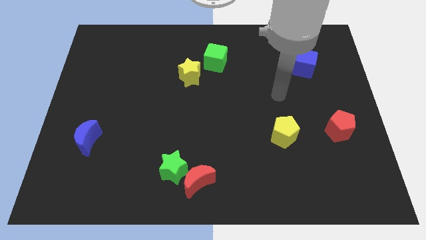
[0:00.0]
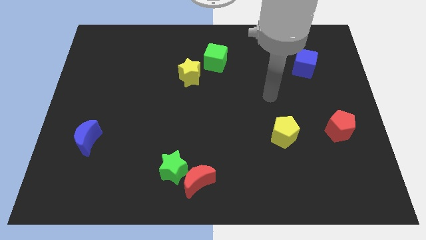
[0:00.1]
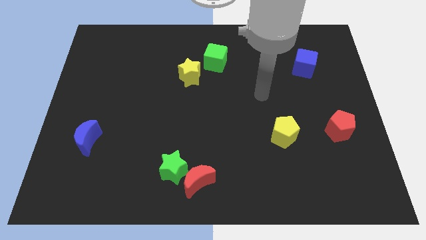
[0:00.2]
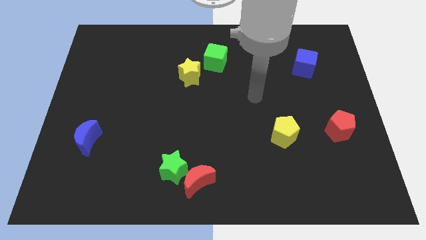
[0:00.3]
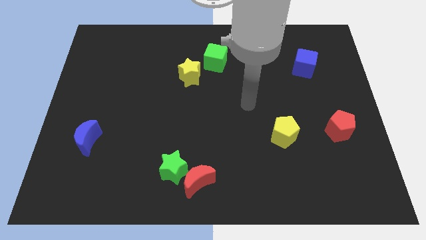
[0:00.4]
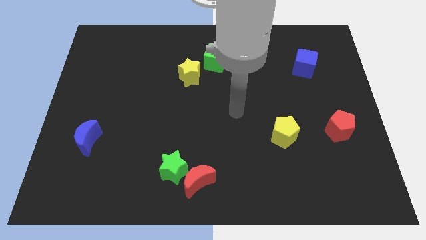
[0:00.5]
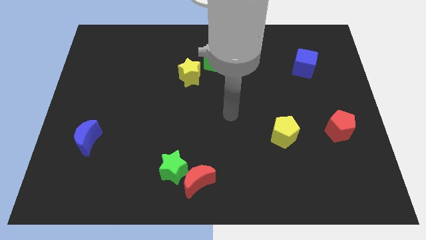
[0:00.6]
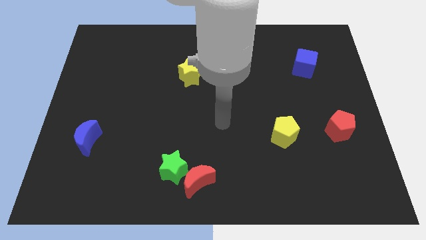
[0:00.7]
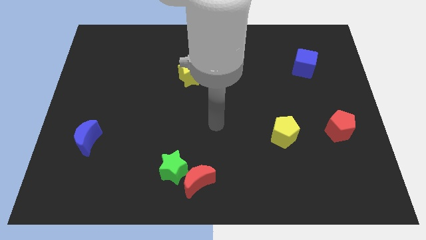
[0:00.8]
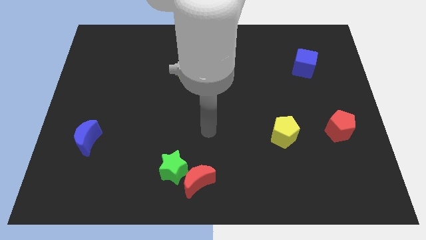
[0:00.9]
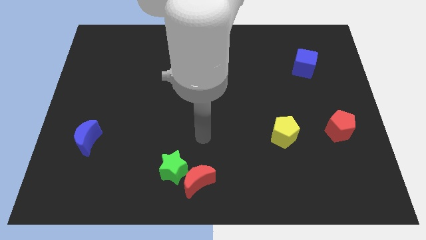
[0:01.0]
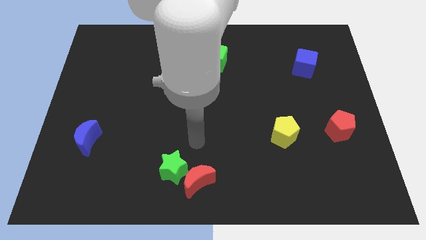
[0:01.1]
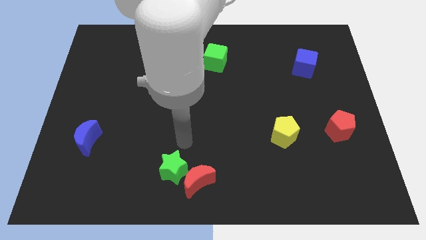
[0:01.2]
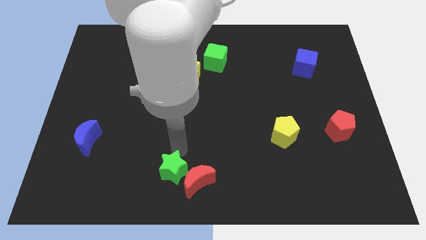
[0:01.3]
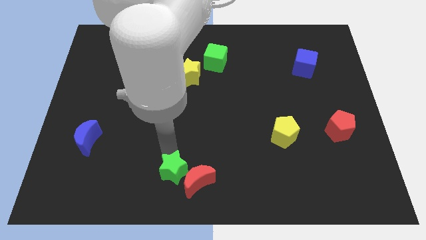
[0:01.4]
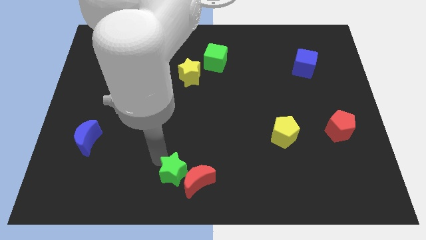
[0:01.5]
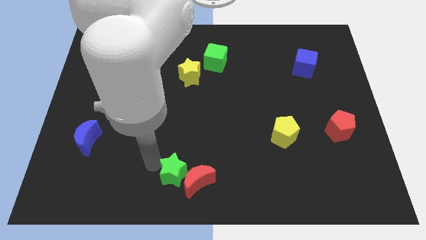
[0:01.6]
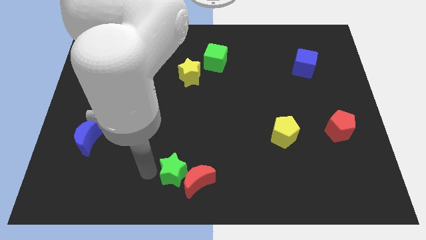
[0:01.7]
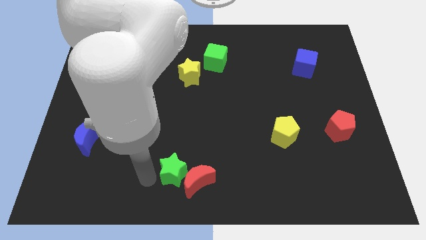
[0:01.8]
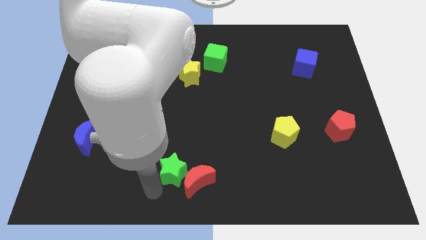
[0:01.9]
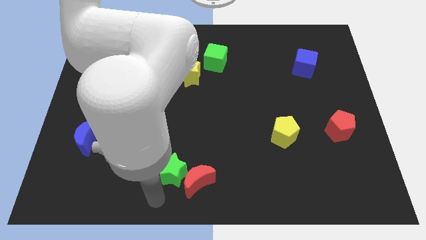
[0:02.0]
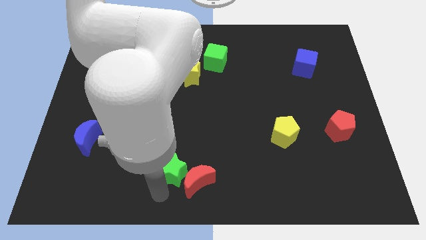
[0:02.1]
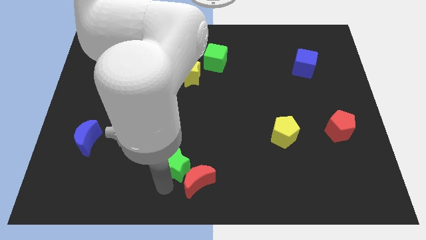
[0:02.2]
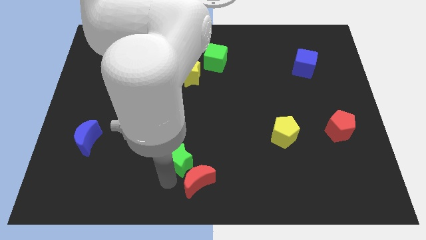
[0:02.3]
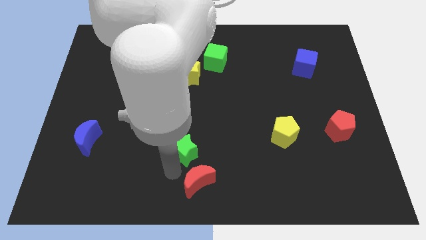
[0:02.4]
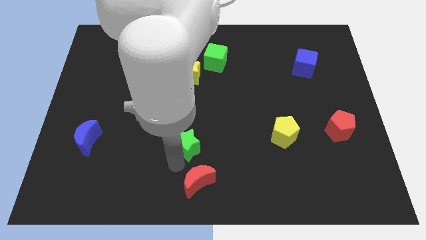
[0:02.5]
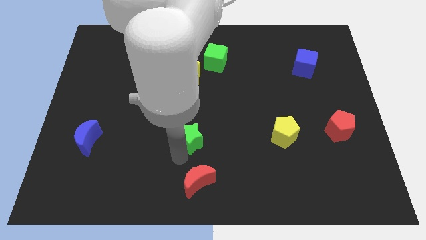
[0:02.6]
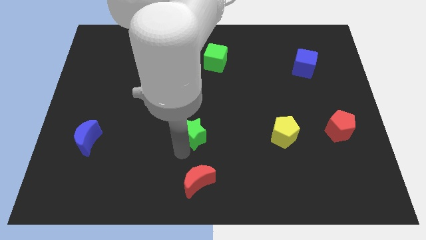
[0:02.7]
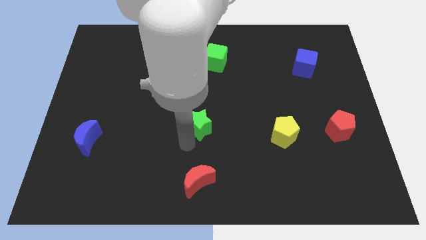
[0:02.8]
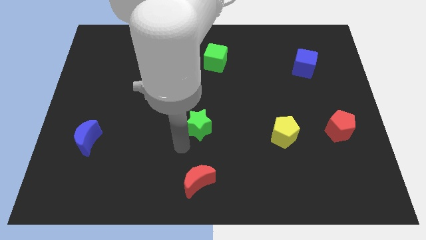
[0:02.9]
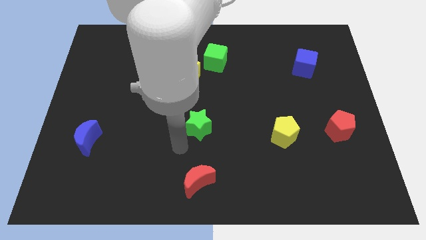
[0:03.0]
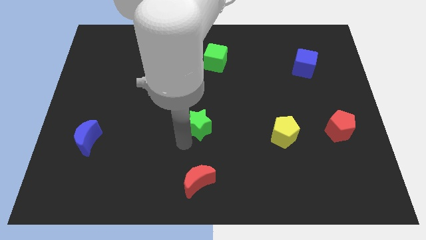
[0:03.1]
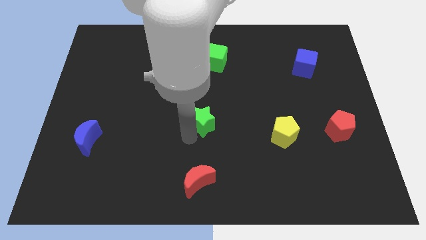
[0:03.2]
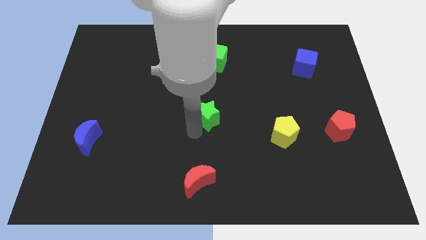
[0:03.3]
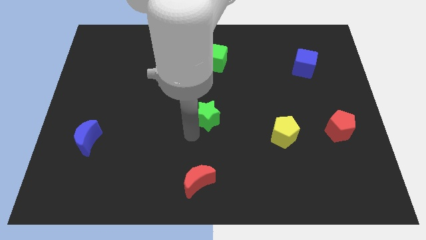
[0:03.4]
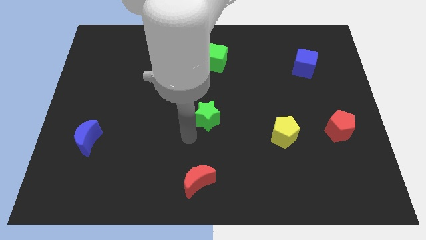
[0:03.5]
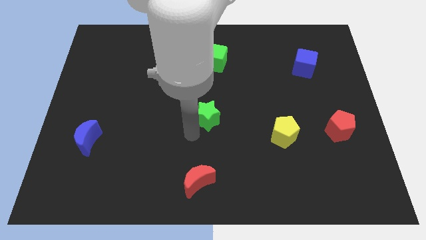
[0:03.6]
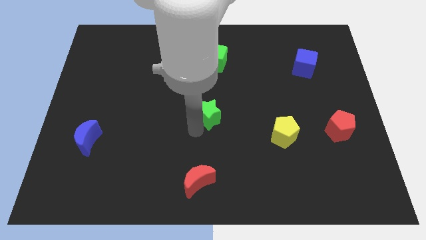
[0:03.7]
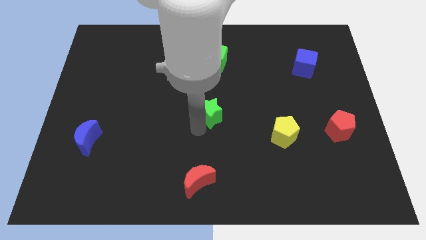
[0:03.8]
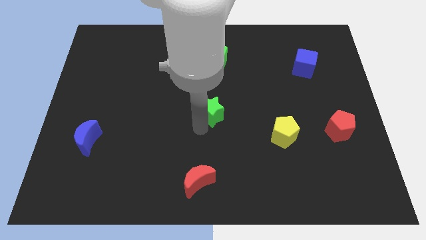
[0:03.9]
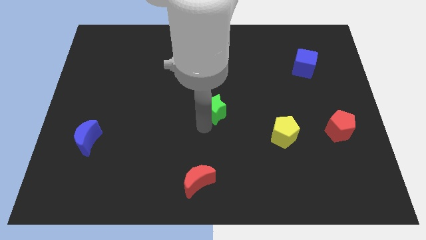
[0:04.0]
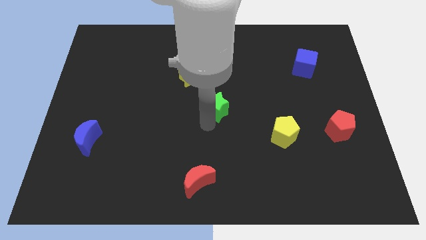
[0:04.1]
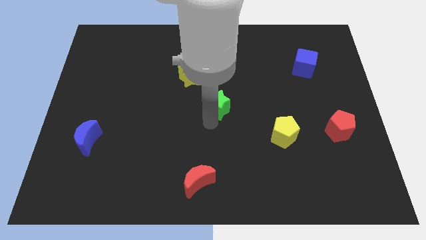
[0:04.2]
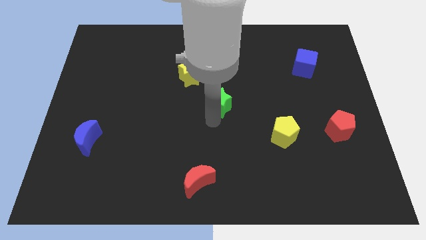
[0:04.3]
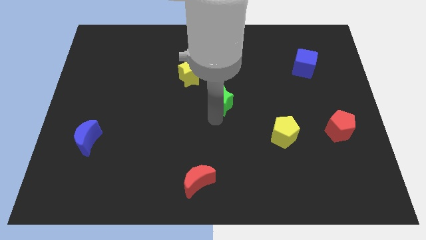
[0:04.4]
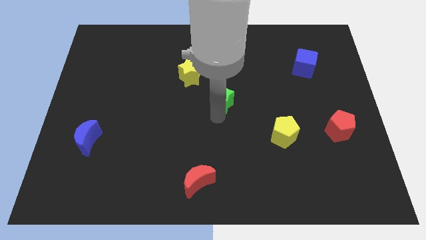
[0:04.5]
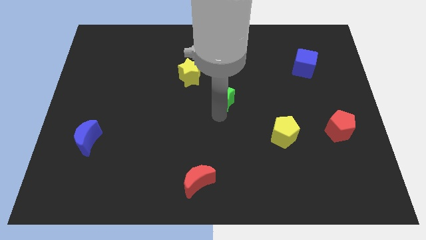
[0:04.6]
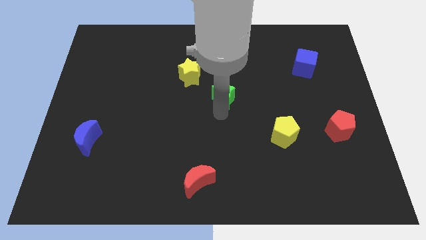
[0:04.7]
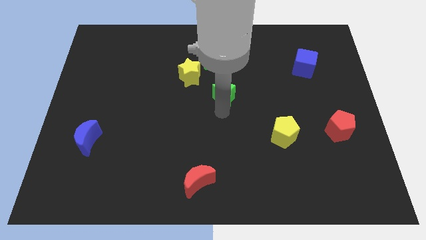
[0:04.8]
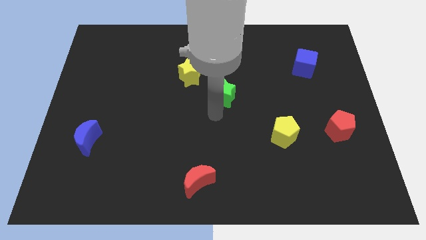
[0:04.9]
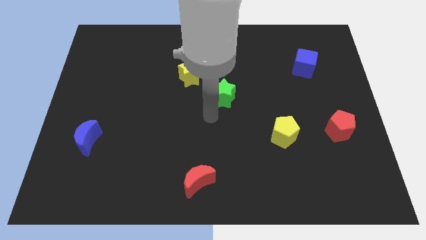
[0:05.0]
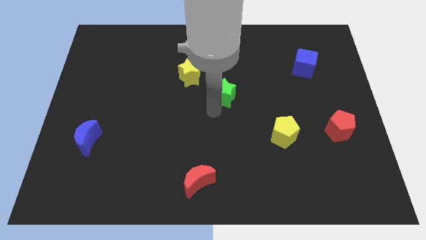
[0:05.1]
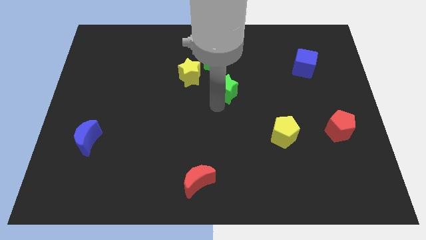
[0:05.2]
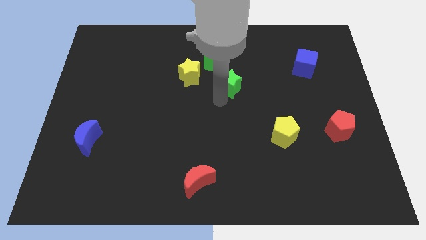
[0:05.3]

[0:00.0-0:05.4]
slide the green star diagonally down and to the right of the green cube

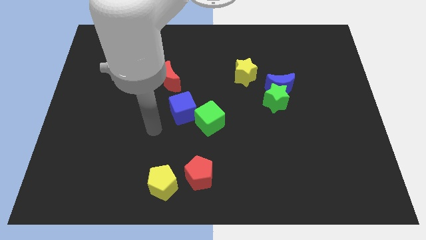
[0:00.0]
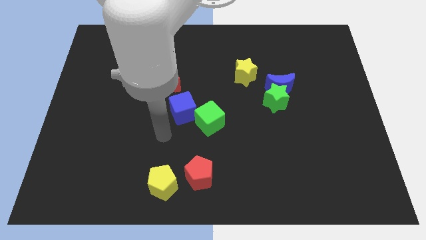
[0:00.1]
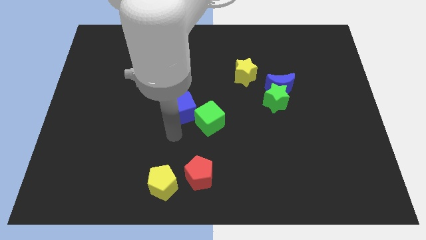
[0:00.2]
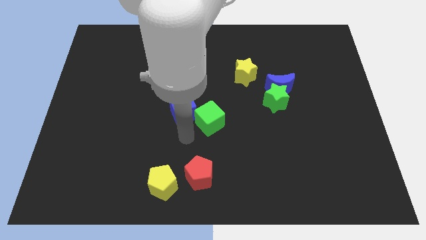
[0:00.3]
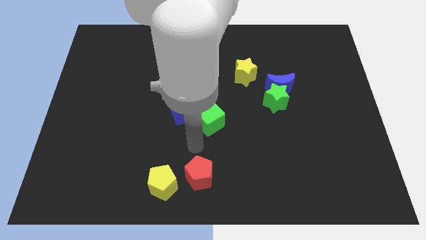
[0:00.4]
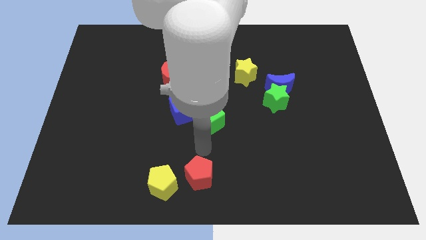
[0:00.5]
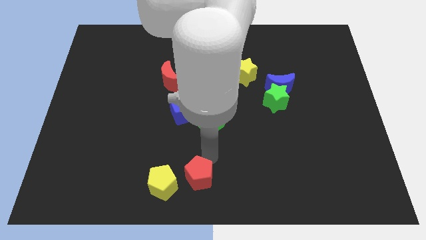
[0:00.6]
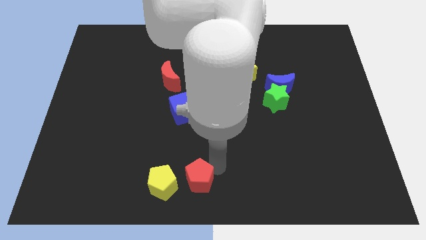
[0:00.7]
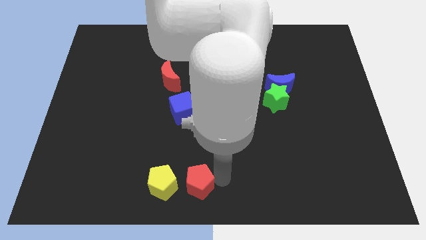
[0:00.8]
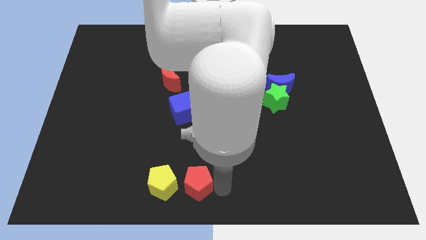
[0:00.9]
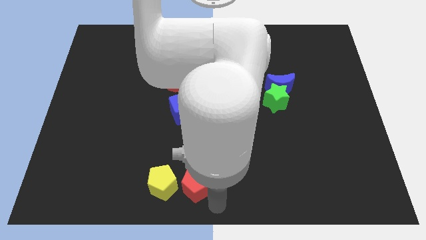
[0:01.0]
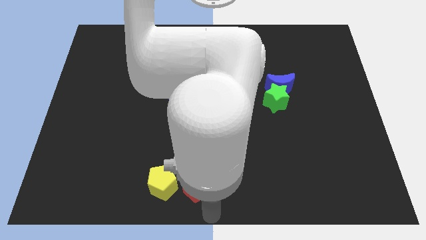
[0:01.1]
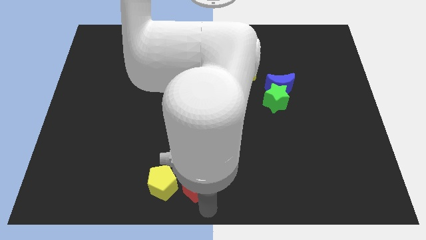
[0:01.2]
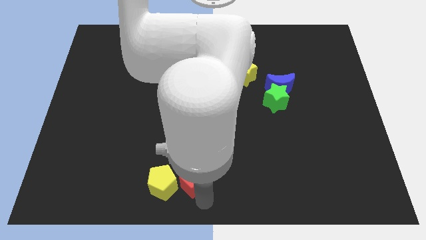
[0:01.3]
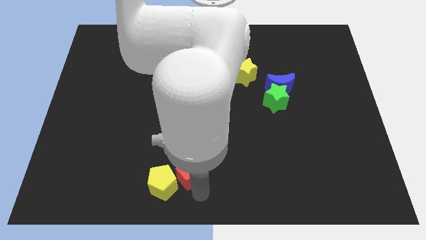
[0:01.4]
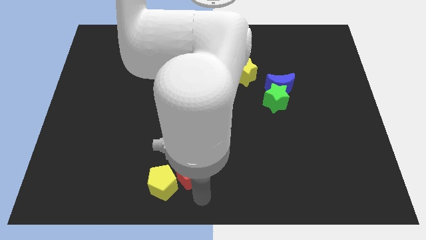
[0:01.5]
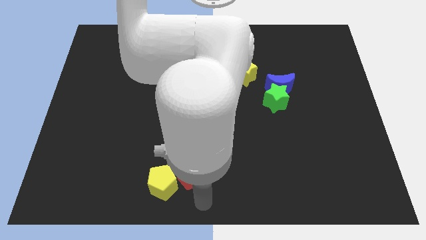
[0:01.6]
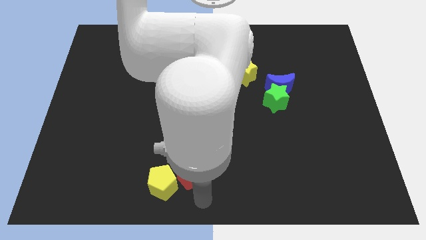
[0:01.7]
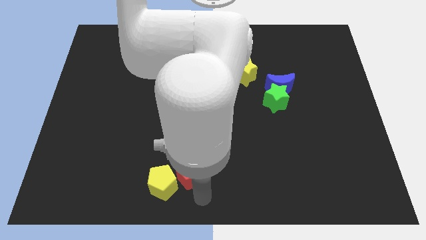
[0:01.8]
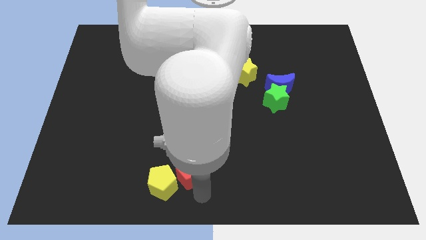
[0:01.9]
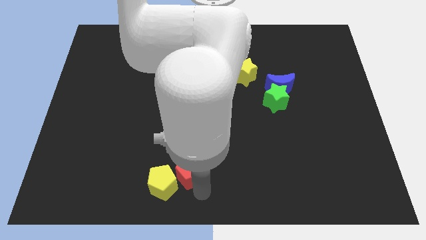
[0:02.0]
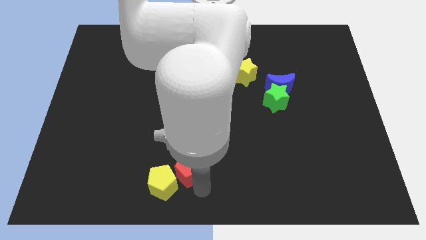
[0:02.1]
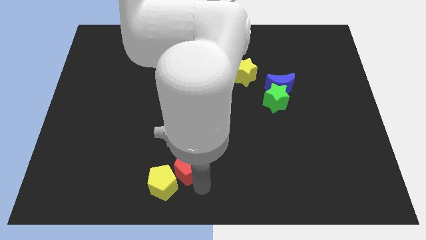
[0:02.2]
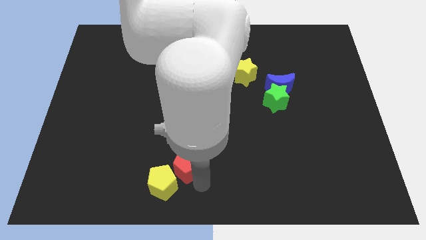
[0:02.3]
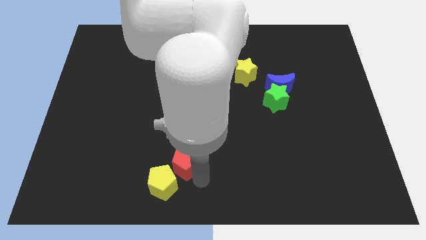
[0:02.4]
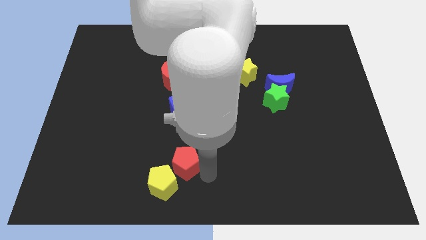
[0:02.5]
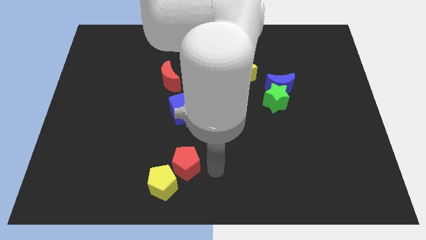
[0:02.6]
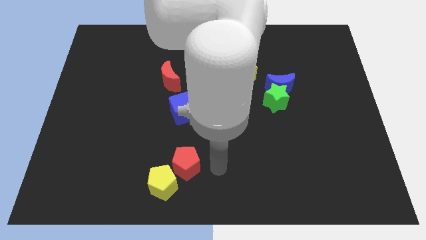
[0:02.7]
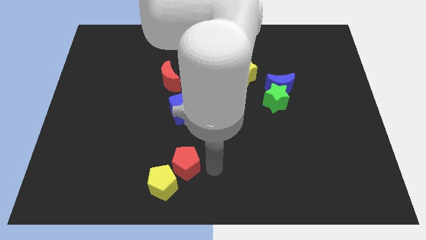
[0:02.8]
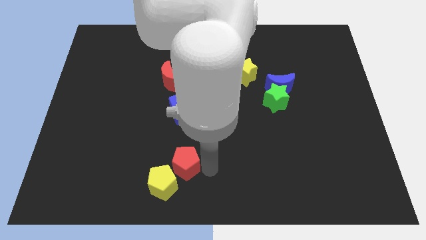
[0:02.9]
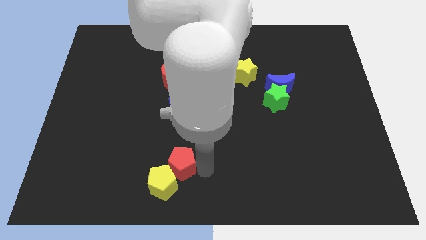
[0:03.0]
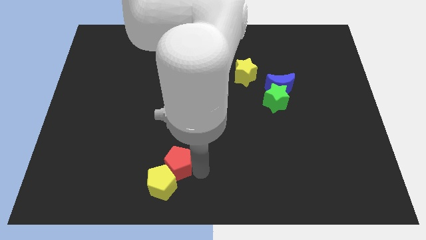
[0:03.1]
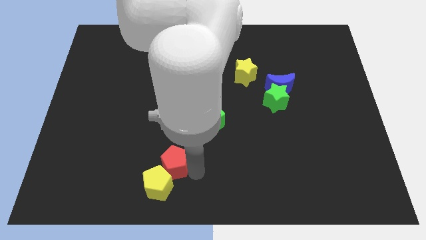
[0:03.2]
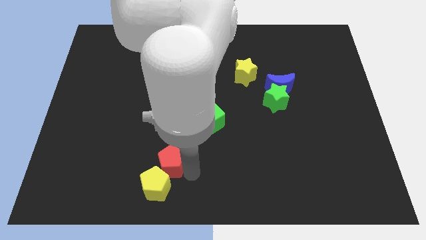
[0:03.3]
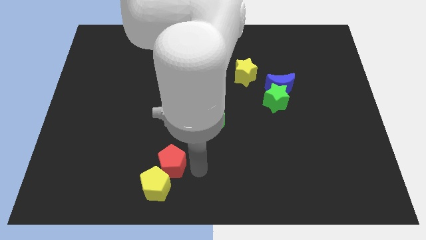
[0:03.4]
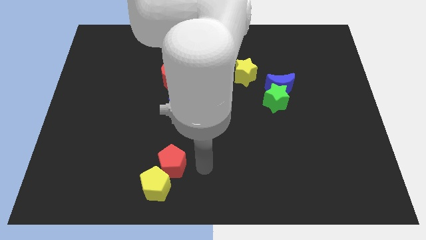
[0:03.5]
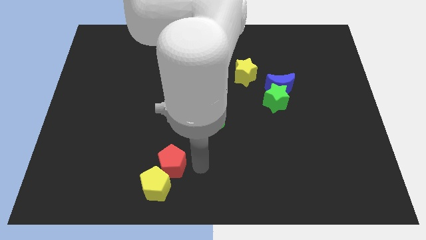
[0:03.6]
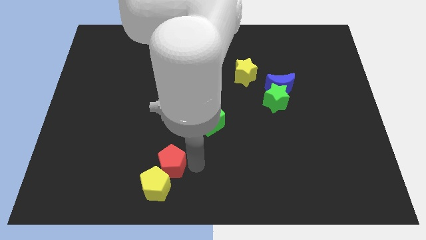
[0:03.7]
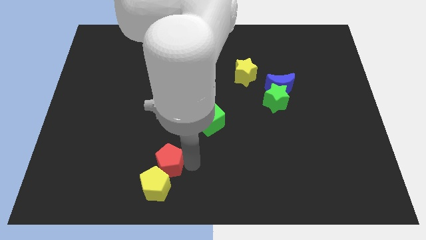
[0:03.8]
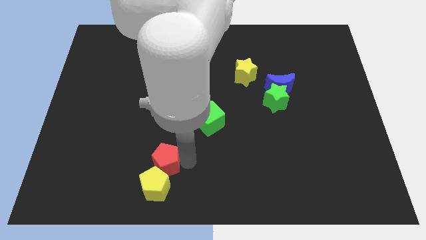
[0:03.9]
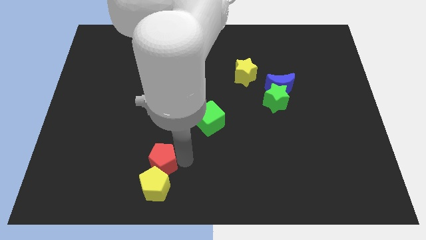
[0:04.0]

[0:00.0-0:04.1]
move the red pentagon to the top left side of the yellow pentagon
